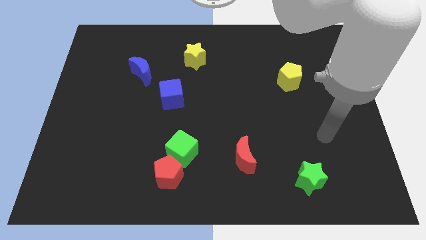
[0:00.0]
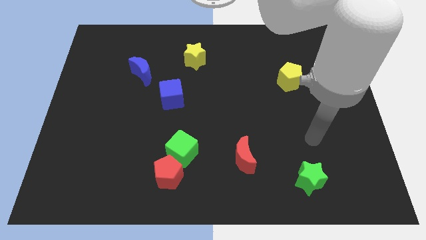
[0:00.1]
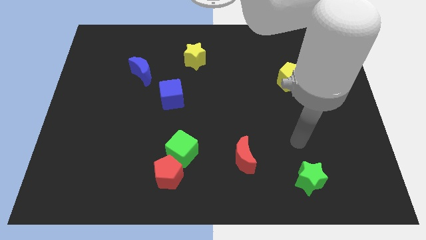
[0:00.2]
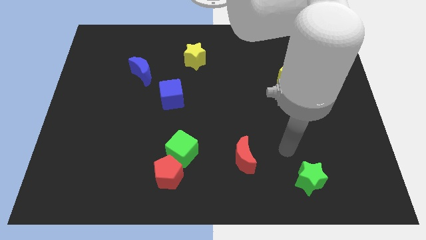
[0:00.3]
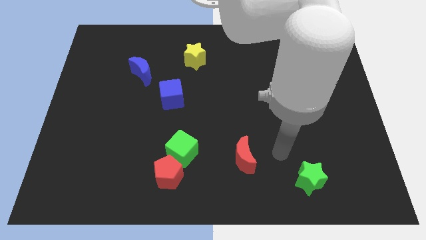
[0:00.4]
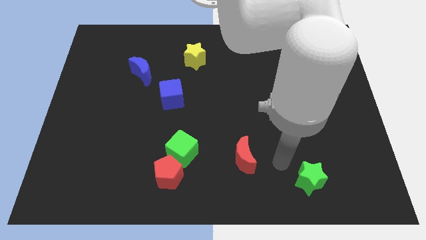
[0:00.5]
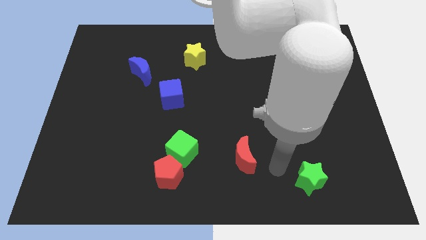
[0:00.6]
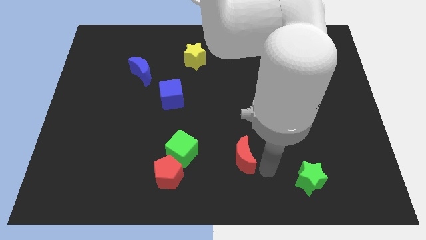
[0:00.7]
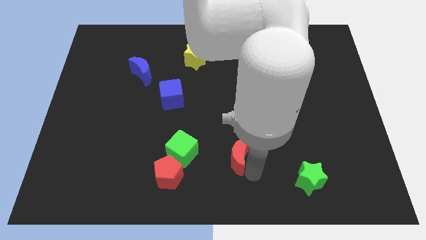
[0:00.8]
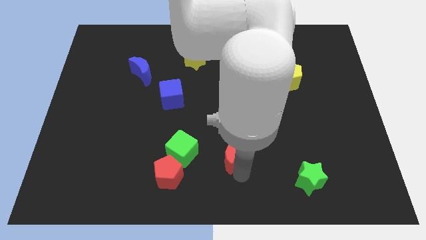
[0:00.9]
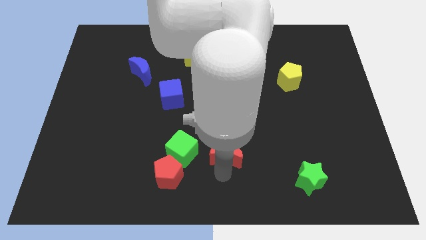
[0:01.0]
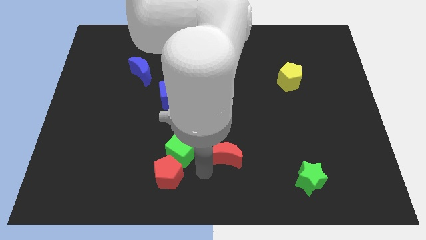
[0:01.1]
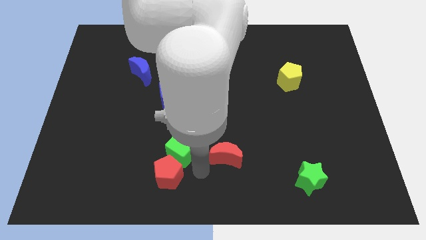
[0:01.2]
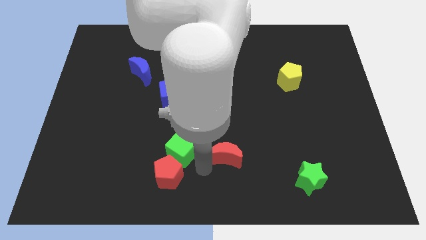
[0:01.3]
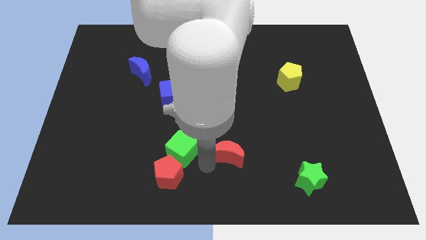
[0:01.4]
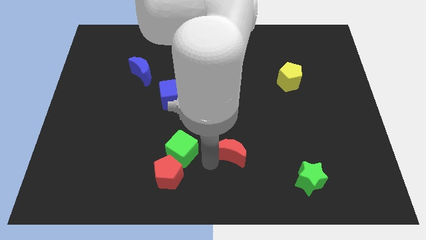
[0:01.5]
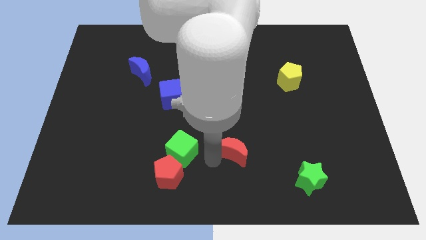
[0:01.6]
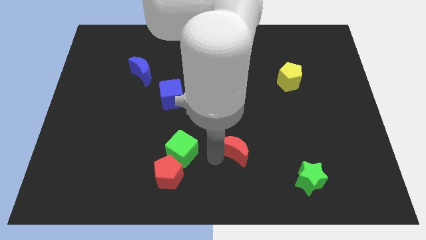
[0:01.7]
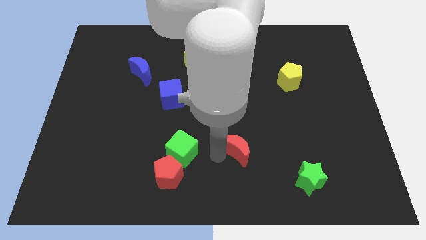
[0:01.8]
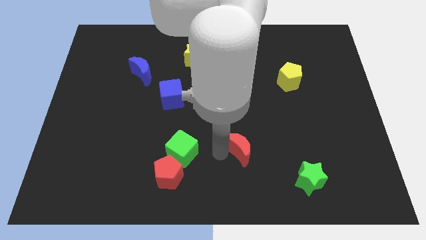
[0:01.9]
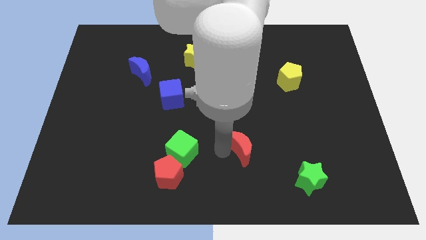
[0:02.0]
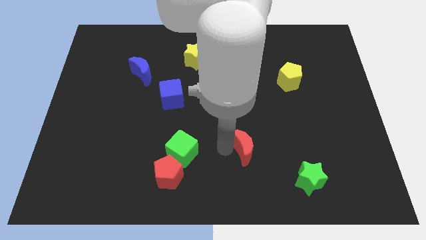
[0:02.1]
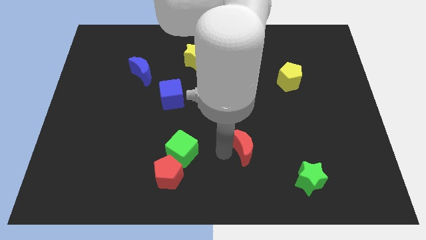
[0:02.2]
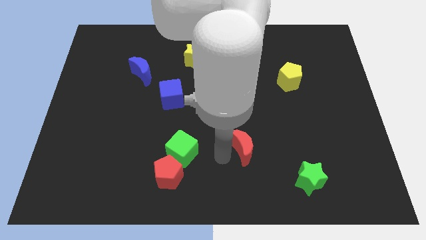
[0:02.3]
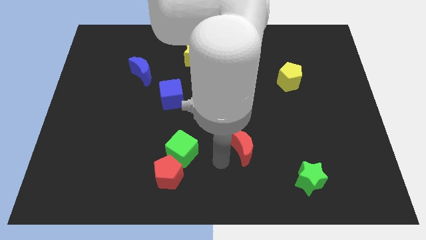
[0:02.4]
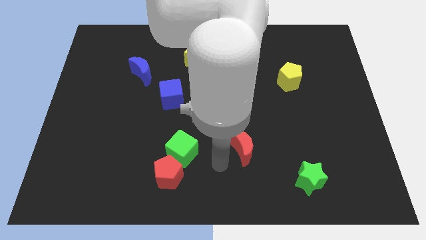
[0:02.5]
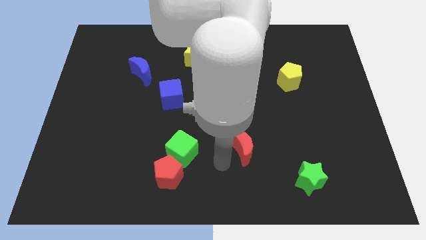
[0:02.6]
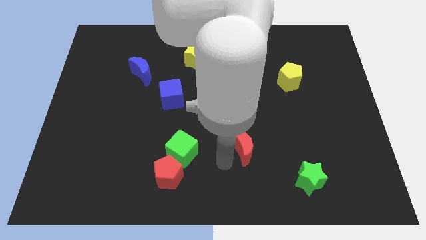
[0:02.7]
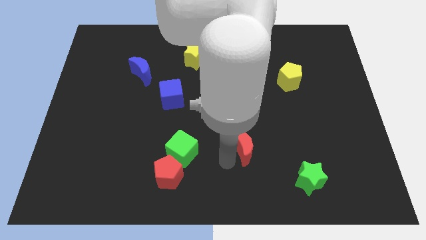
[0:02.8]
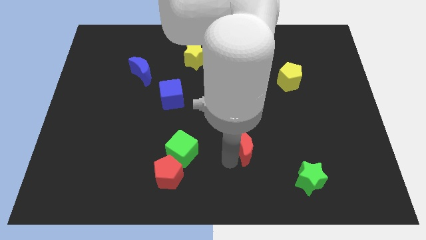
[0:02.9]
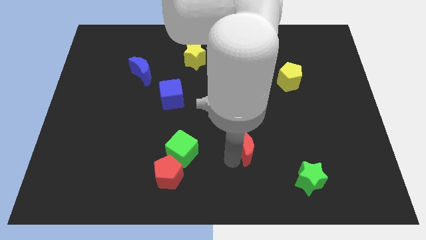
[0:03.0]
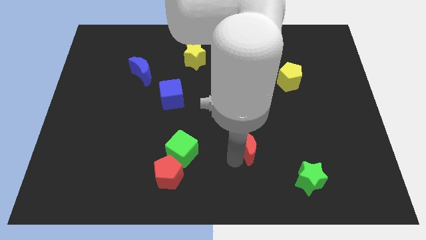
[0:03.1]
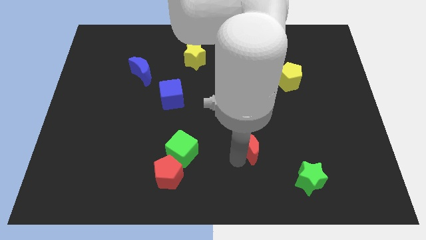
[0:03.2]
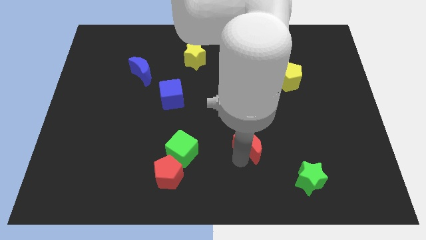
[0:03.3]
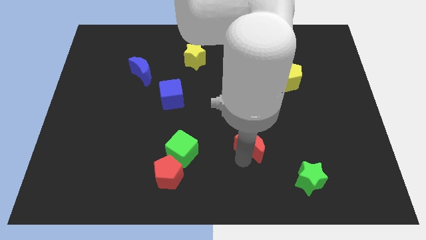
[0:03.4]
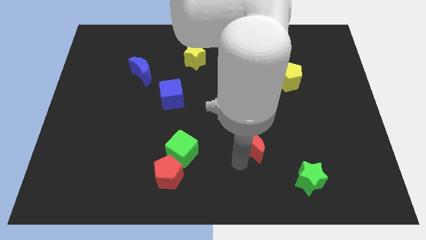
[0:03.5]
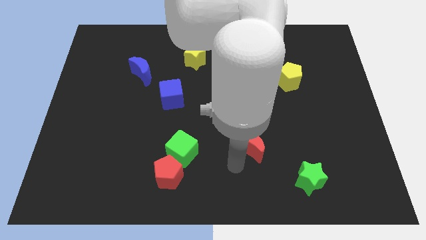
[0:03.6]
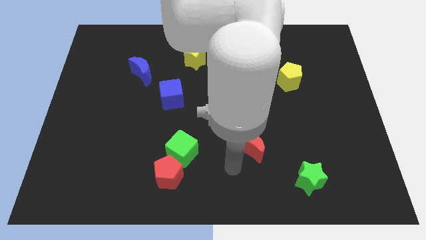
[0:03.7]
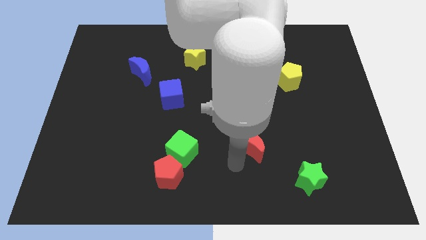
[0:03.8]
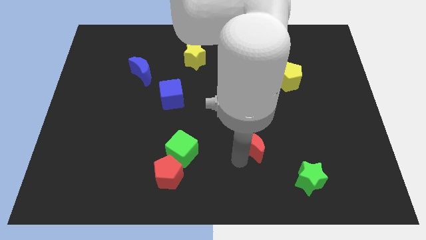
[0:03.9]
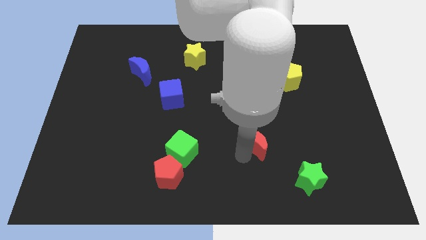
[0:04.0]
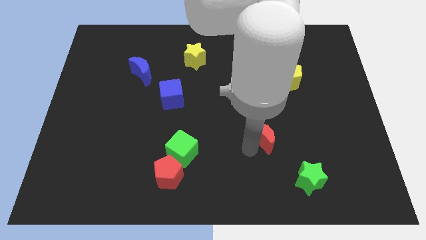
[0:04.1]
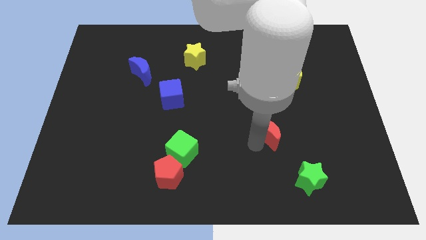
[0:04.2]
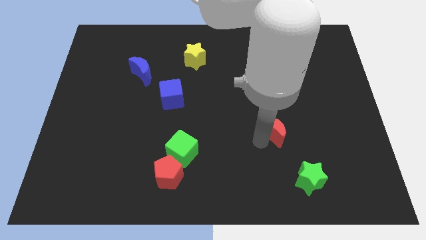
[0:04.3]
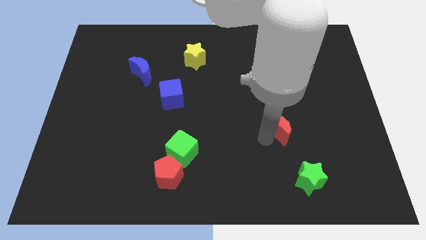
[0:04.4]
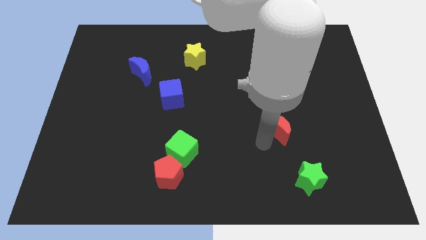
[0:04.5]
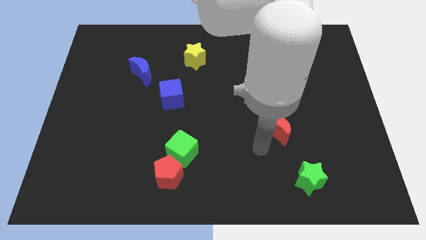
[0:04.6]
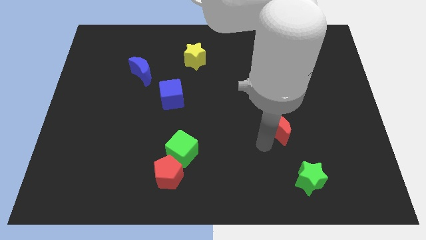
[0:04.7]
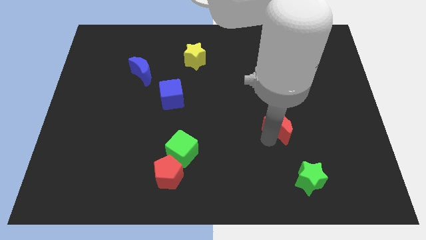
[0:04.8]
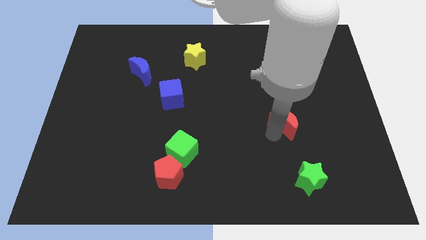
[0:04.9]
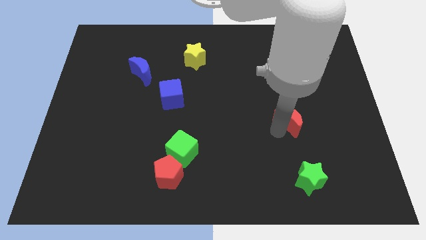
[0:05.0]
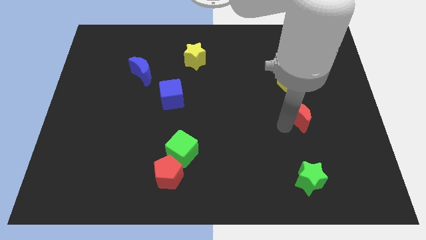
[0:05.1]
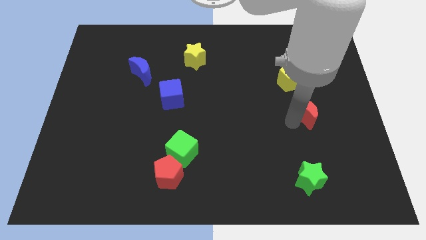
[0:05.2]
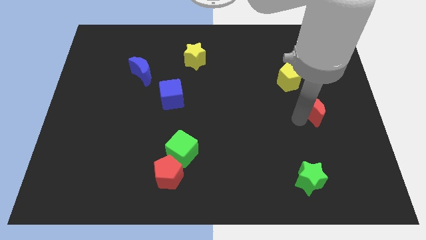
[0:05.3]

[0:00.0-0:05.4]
move the red moon to the bottom right of the yellow pentagon

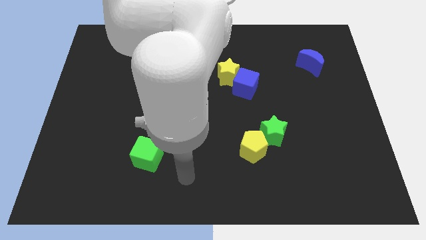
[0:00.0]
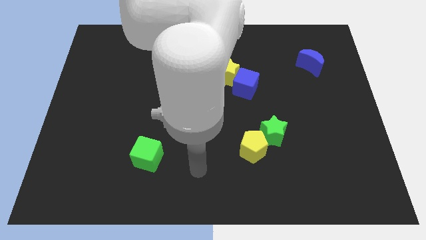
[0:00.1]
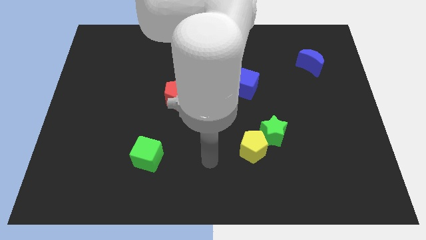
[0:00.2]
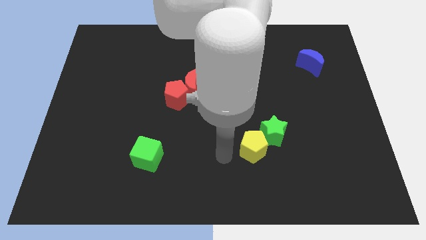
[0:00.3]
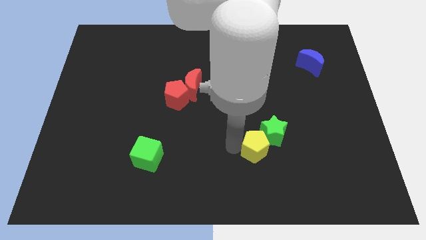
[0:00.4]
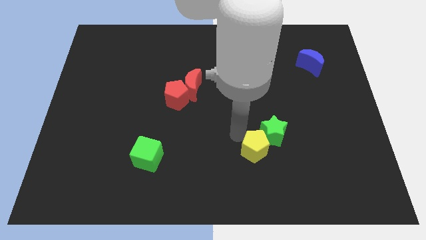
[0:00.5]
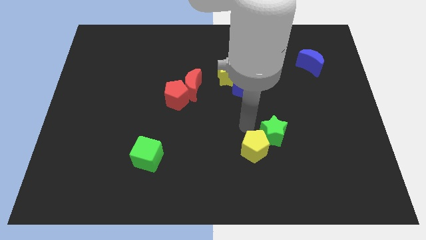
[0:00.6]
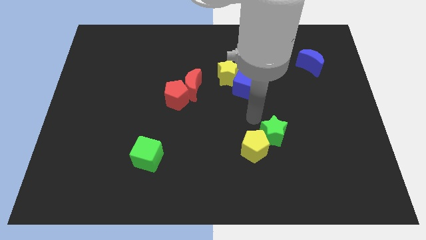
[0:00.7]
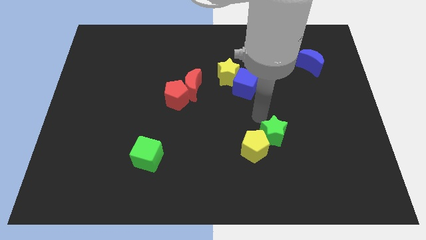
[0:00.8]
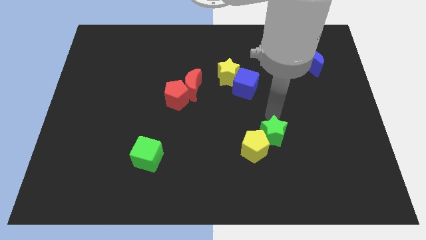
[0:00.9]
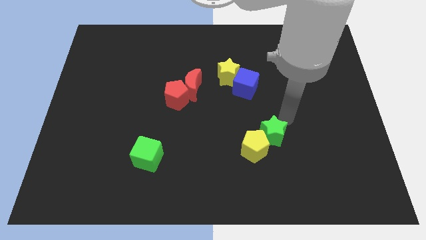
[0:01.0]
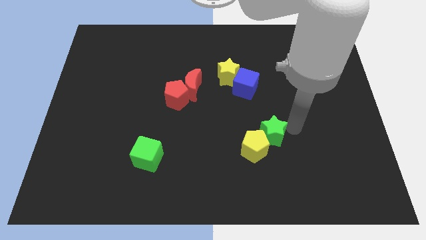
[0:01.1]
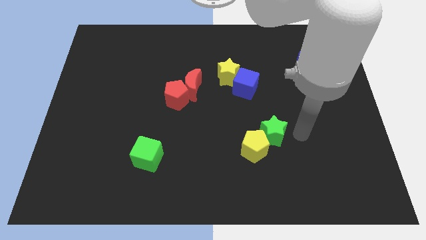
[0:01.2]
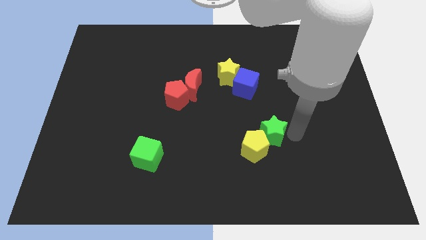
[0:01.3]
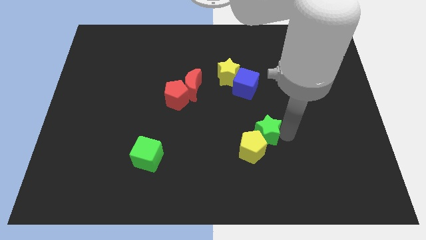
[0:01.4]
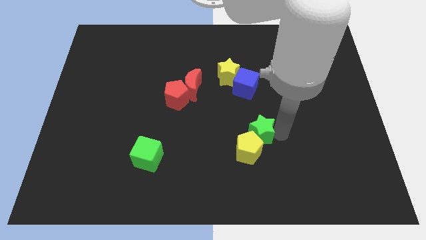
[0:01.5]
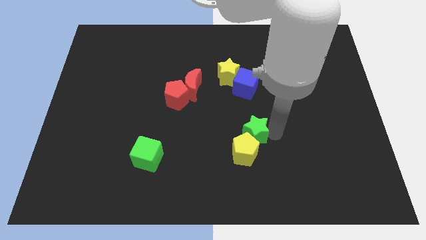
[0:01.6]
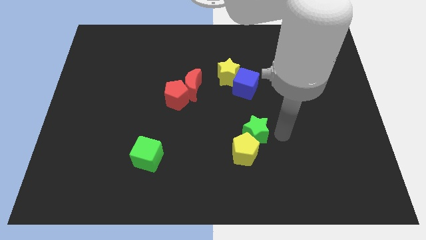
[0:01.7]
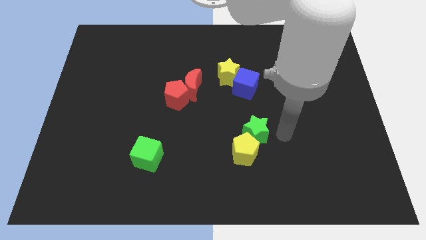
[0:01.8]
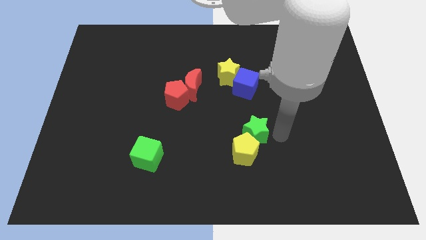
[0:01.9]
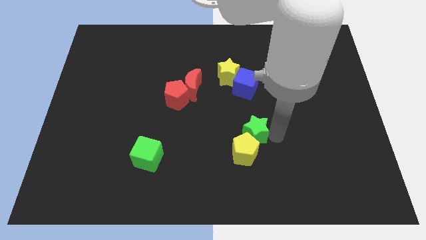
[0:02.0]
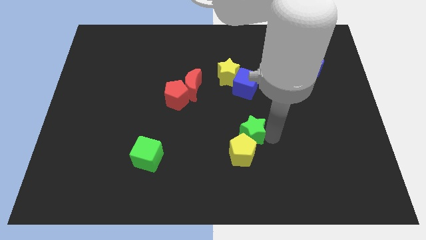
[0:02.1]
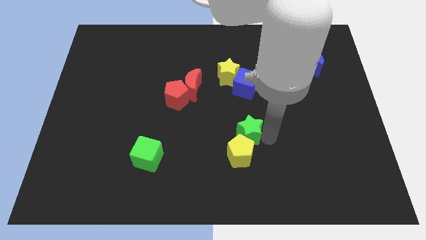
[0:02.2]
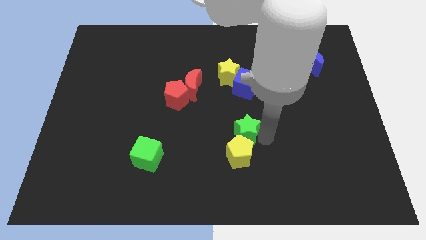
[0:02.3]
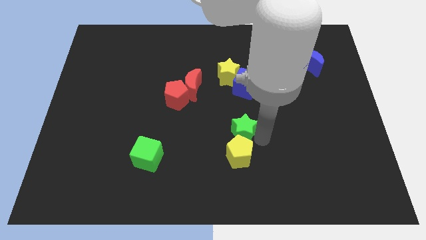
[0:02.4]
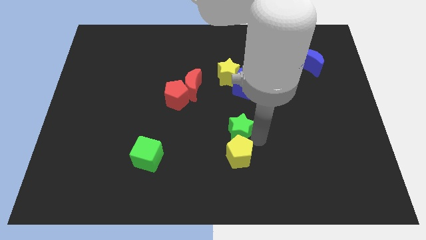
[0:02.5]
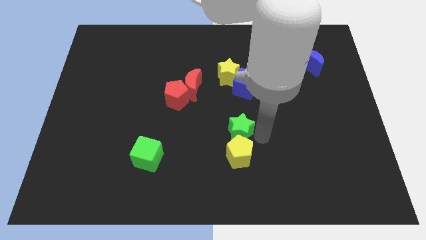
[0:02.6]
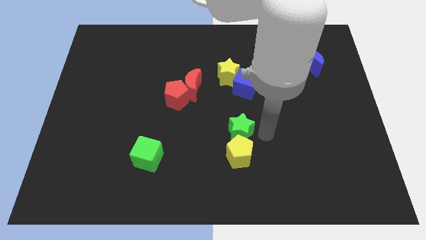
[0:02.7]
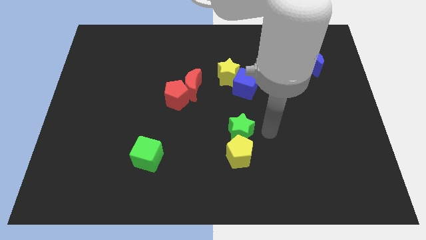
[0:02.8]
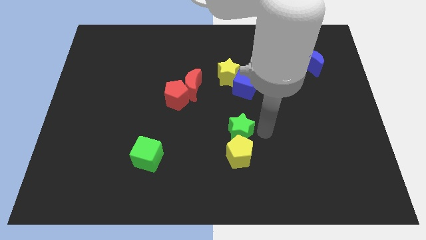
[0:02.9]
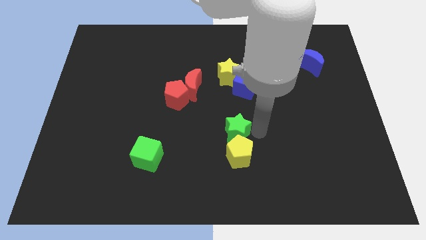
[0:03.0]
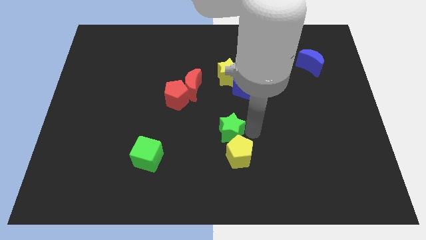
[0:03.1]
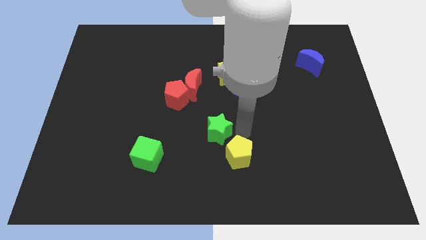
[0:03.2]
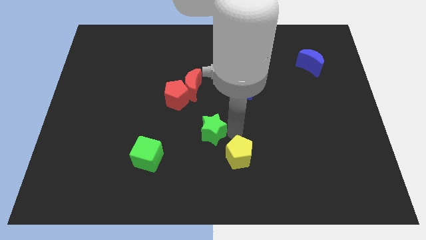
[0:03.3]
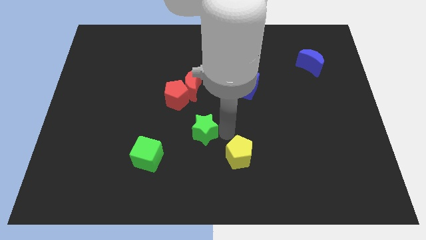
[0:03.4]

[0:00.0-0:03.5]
move the green star to the bottom of the red moon
